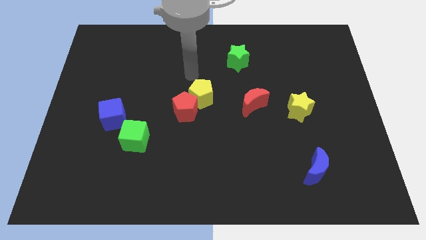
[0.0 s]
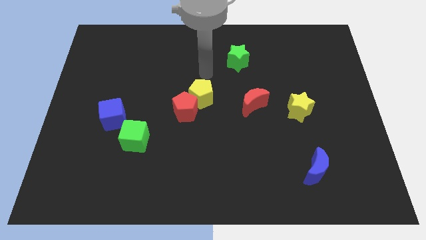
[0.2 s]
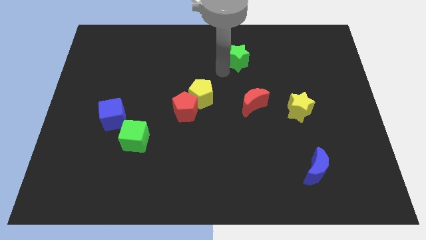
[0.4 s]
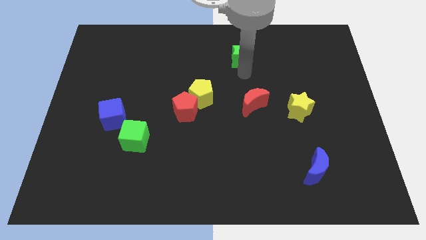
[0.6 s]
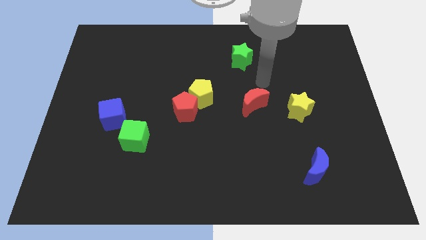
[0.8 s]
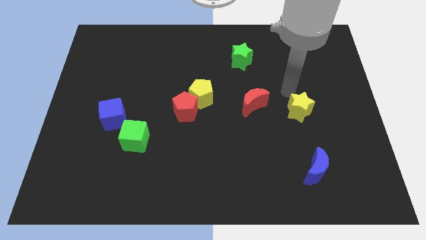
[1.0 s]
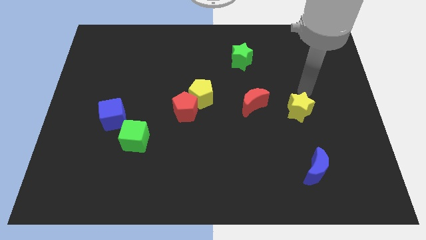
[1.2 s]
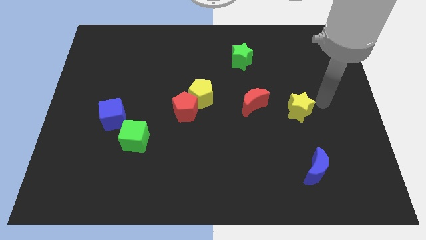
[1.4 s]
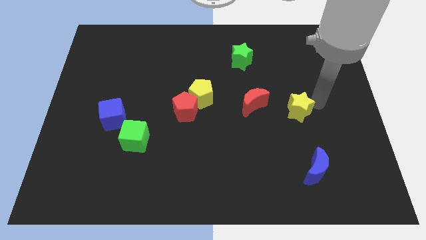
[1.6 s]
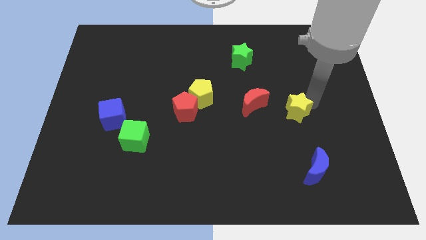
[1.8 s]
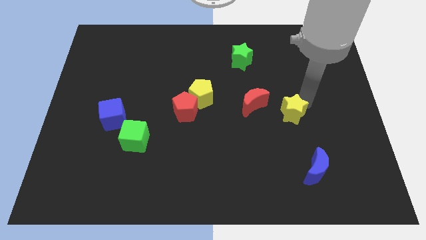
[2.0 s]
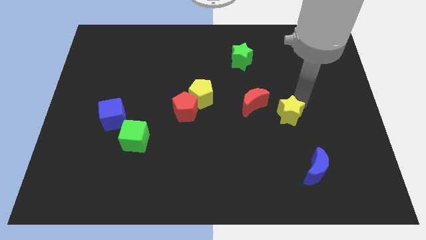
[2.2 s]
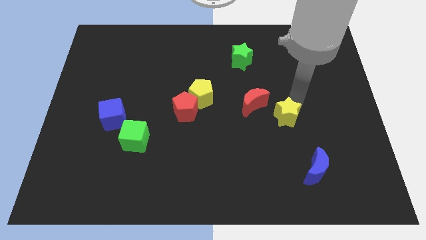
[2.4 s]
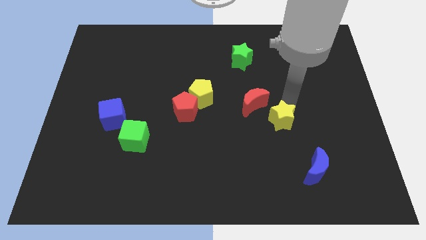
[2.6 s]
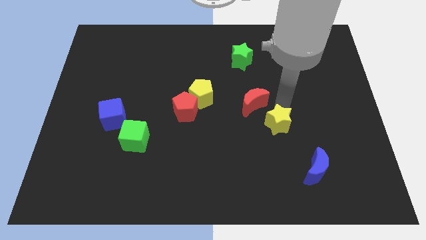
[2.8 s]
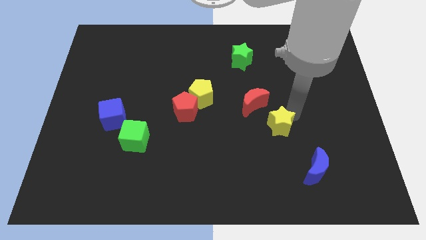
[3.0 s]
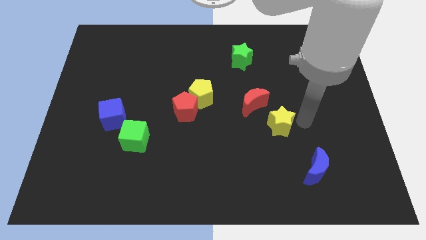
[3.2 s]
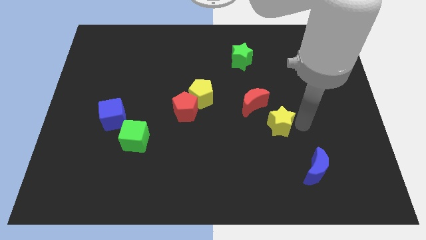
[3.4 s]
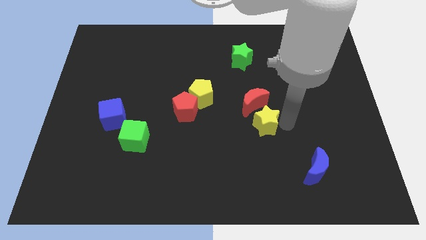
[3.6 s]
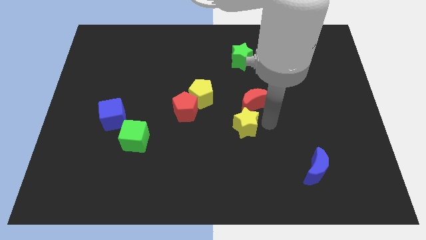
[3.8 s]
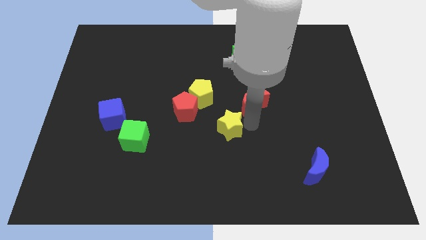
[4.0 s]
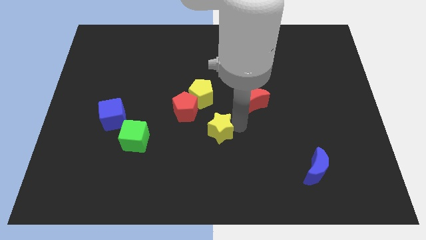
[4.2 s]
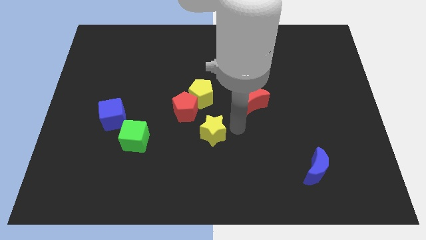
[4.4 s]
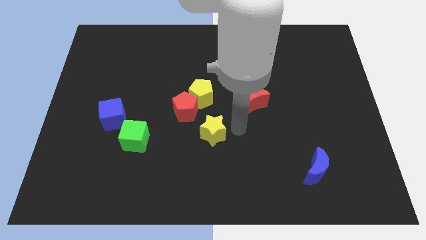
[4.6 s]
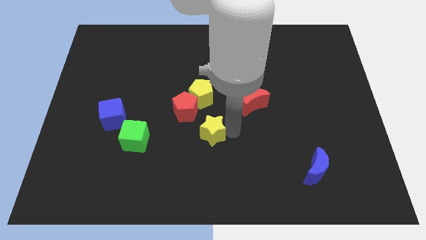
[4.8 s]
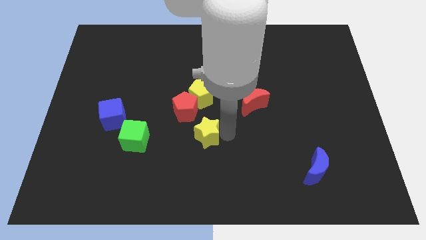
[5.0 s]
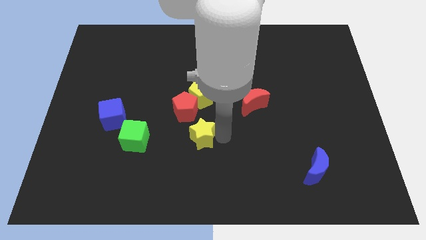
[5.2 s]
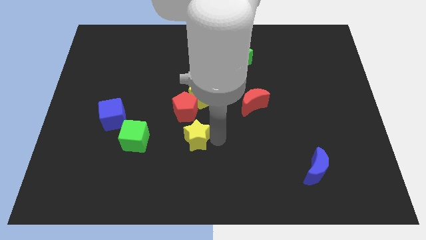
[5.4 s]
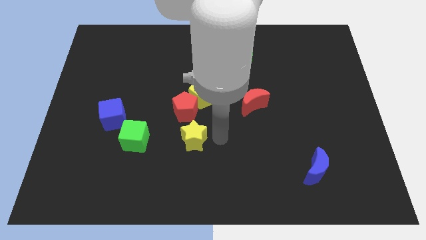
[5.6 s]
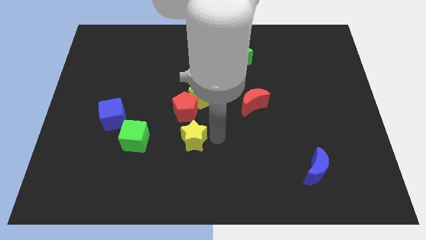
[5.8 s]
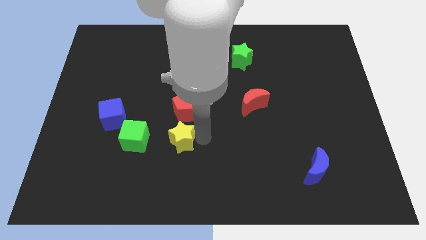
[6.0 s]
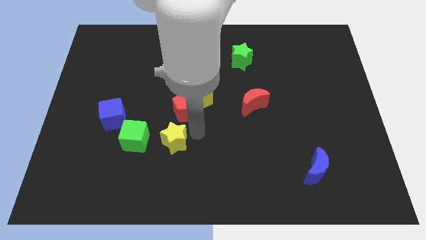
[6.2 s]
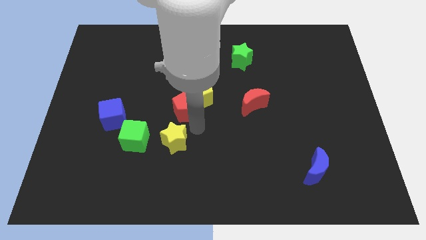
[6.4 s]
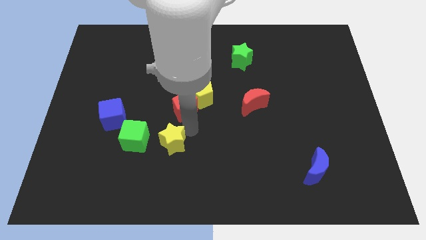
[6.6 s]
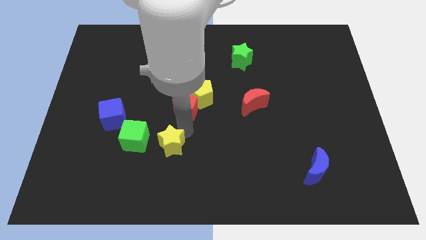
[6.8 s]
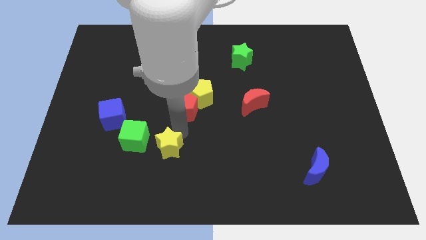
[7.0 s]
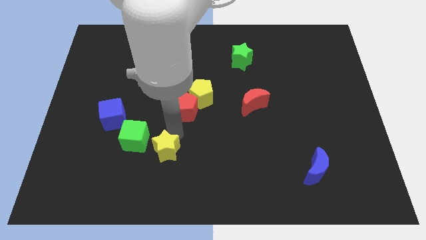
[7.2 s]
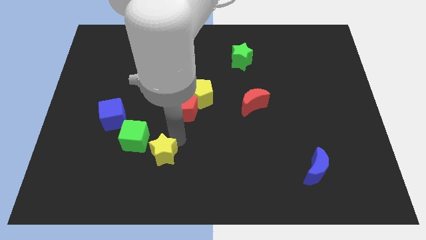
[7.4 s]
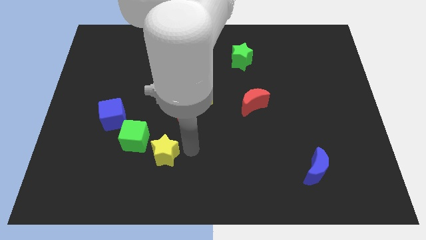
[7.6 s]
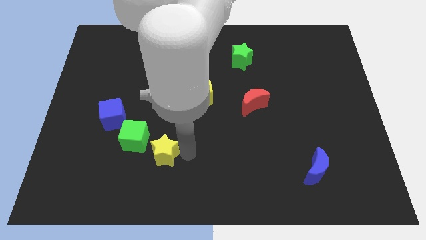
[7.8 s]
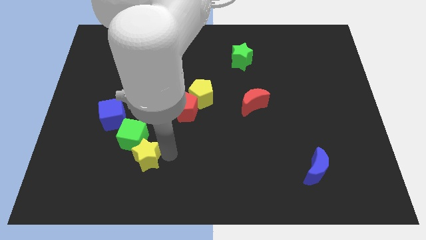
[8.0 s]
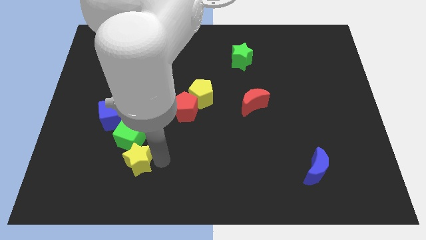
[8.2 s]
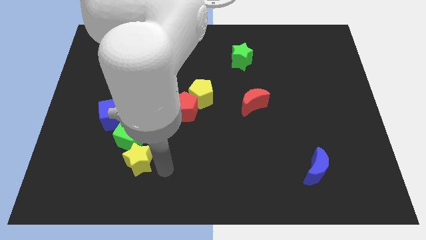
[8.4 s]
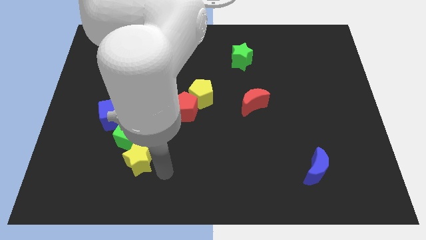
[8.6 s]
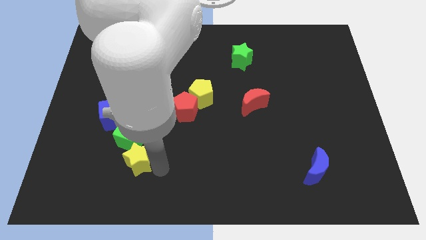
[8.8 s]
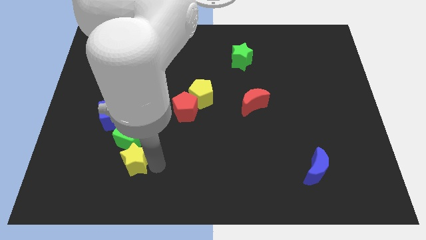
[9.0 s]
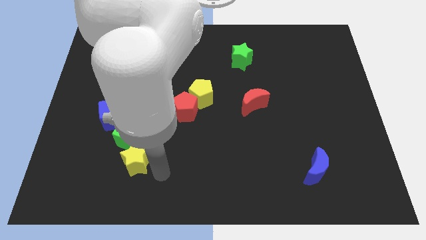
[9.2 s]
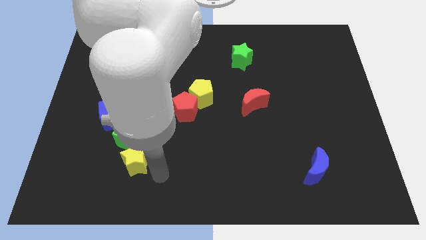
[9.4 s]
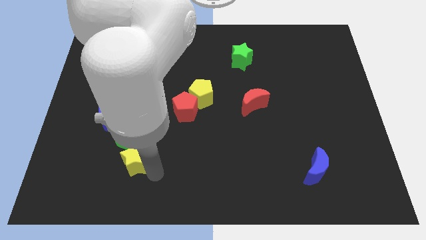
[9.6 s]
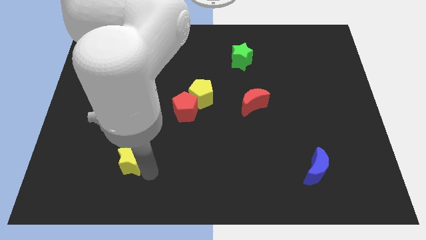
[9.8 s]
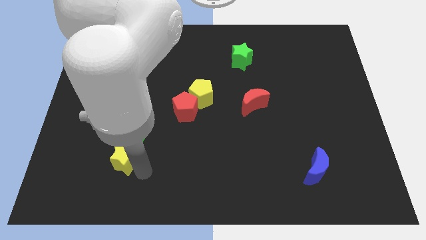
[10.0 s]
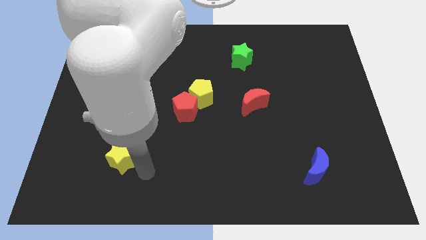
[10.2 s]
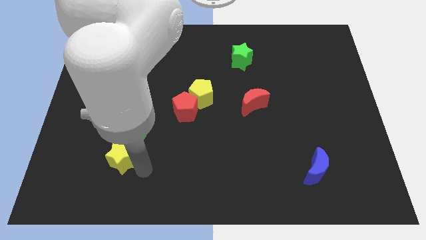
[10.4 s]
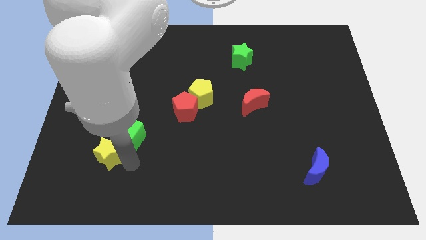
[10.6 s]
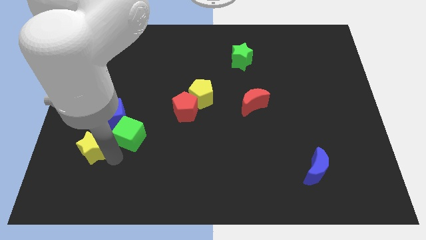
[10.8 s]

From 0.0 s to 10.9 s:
slide the yellow star diagonally down and to the left of the blue cube
